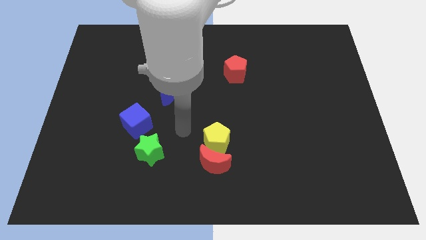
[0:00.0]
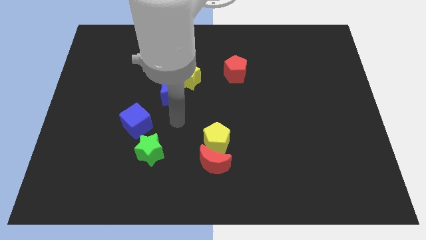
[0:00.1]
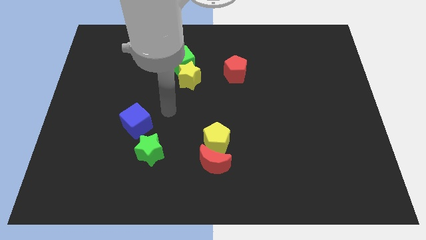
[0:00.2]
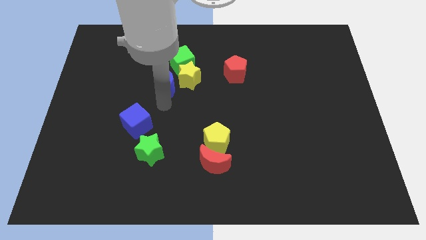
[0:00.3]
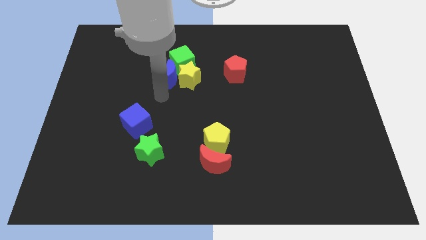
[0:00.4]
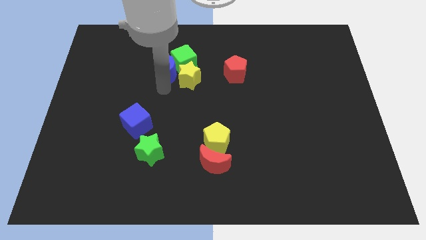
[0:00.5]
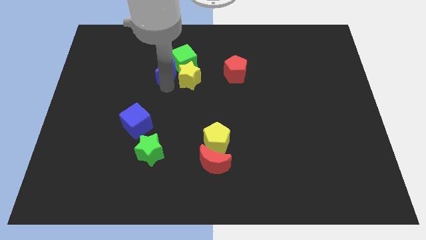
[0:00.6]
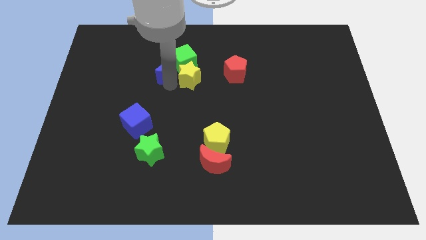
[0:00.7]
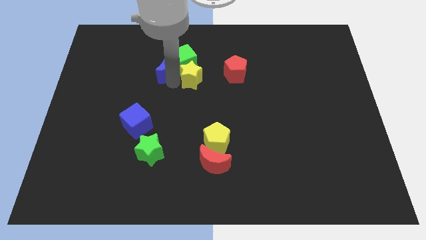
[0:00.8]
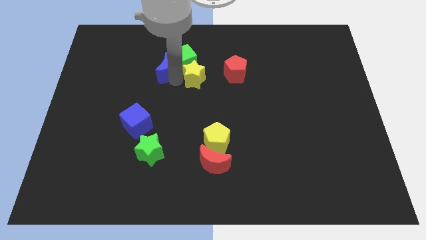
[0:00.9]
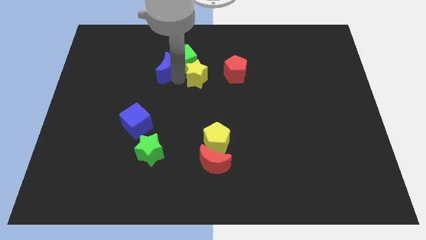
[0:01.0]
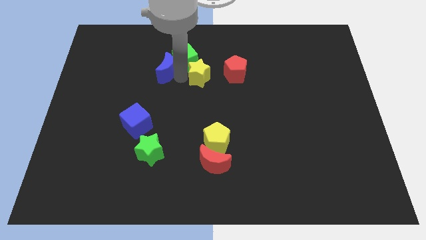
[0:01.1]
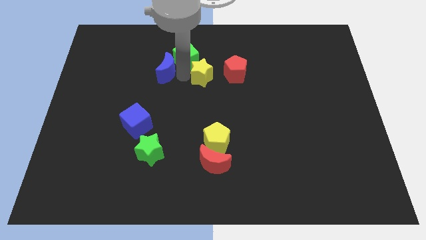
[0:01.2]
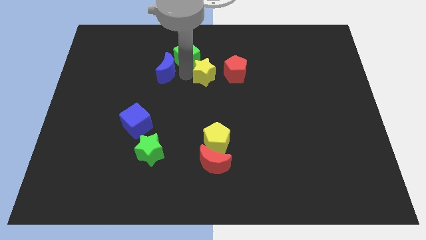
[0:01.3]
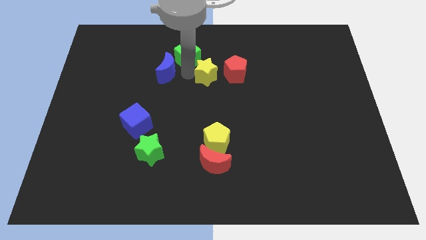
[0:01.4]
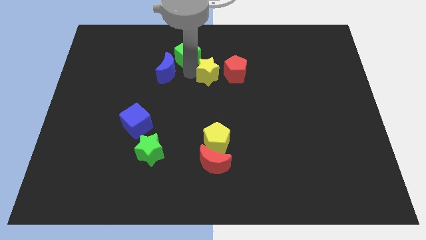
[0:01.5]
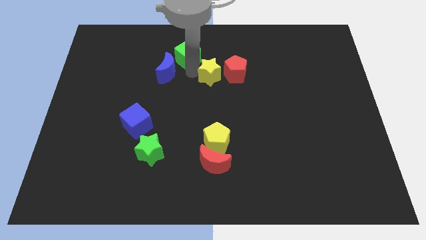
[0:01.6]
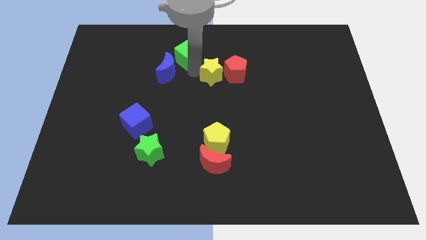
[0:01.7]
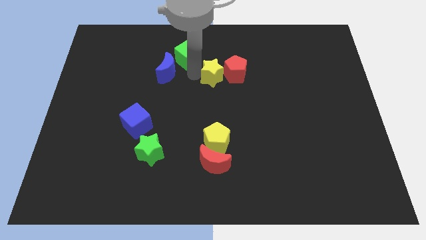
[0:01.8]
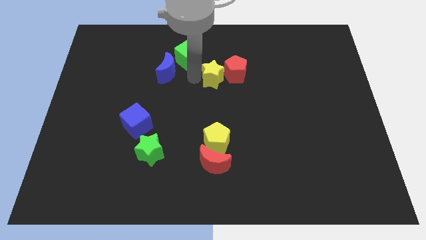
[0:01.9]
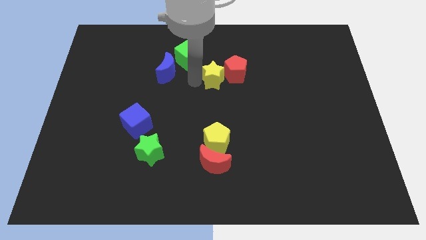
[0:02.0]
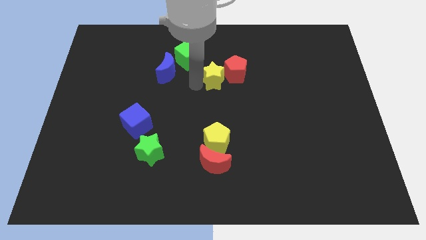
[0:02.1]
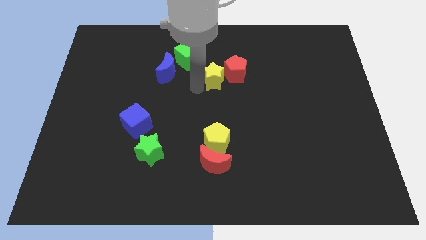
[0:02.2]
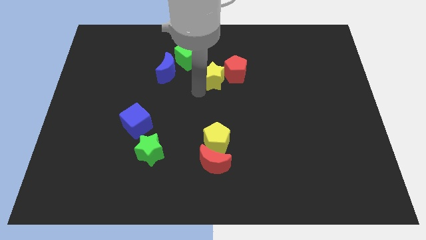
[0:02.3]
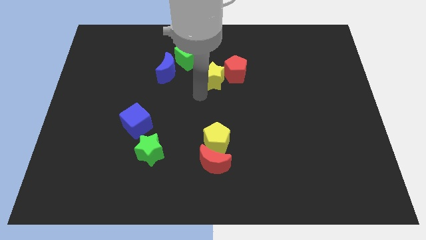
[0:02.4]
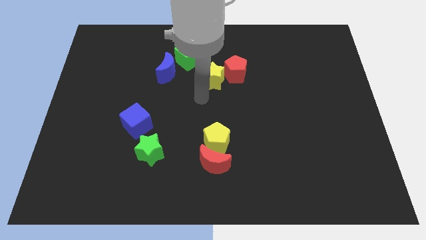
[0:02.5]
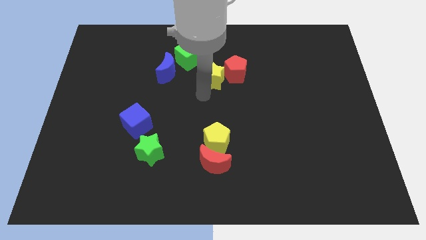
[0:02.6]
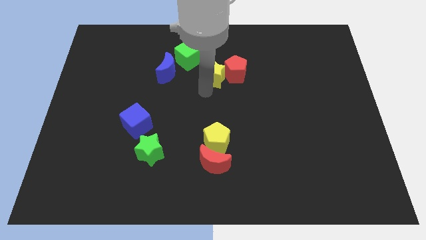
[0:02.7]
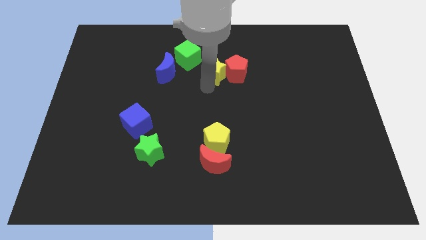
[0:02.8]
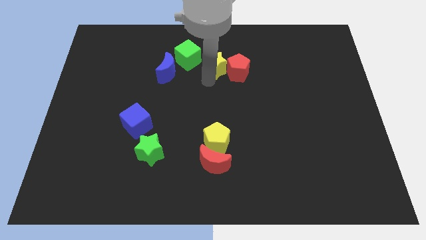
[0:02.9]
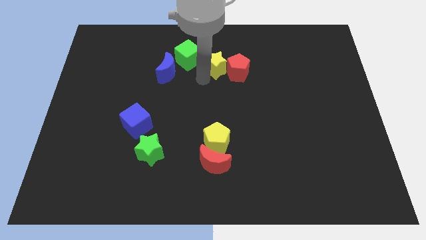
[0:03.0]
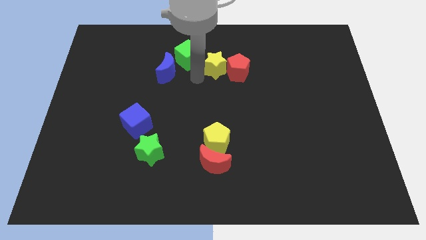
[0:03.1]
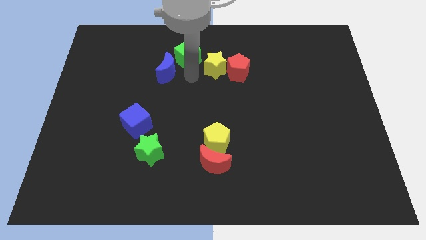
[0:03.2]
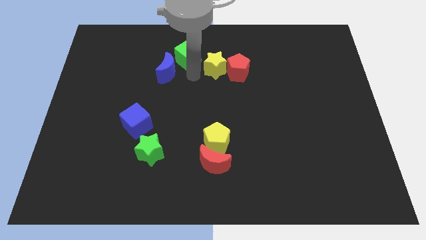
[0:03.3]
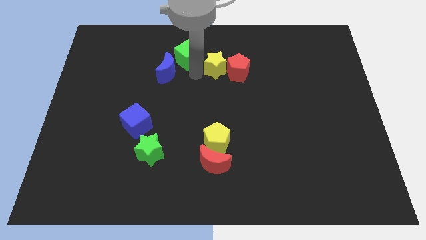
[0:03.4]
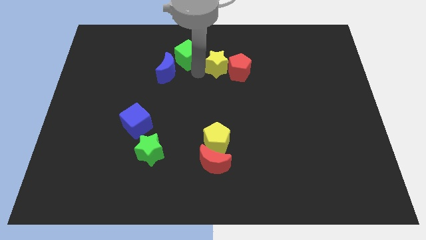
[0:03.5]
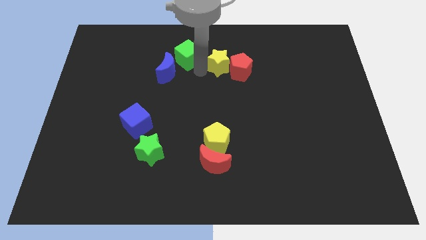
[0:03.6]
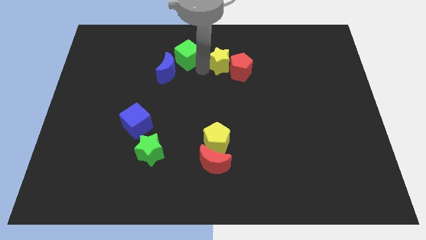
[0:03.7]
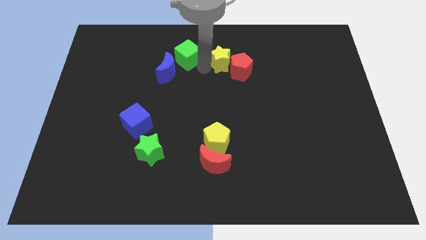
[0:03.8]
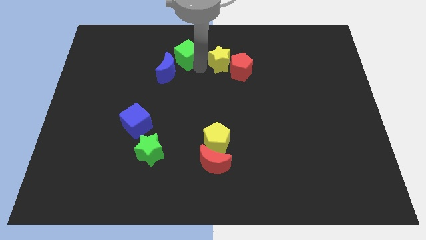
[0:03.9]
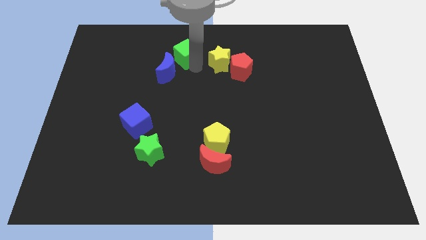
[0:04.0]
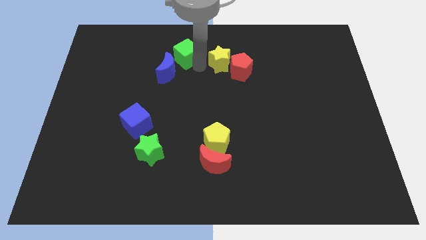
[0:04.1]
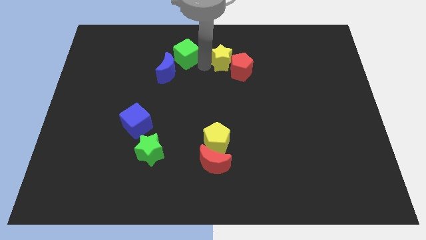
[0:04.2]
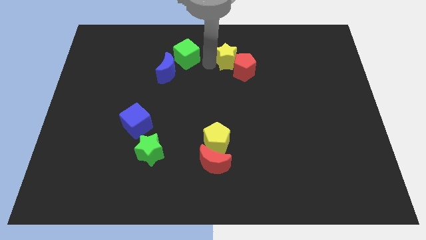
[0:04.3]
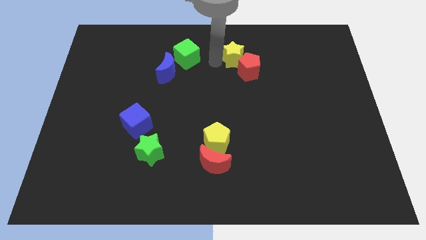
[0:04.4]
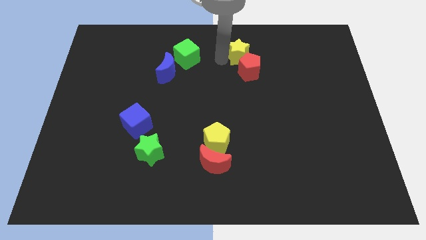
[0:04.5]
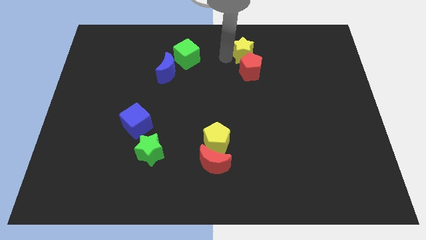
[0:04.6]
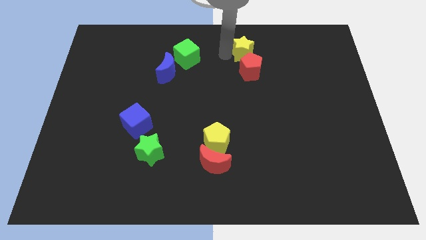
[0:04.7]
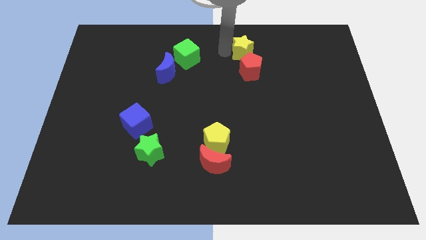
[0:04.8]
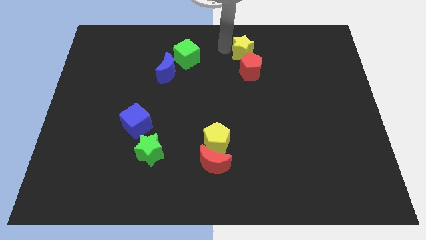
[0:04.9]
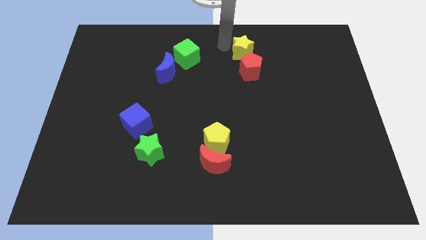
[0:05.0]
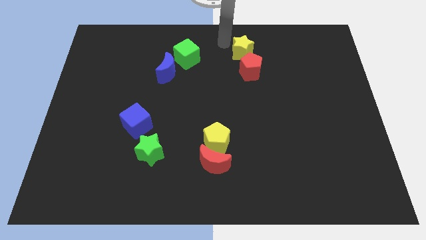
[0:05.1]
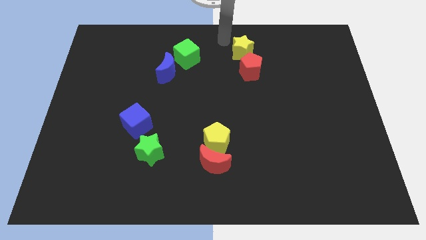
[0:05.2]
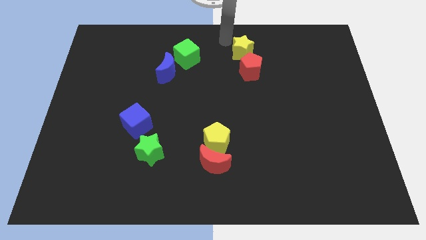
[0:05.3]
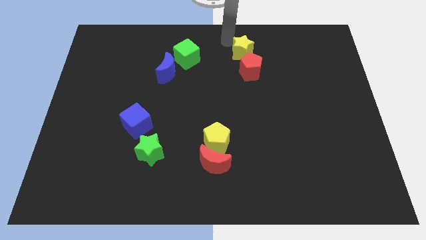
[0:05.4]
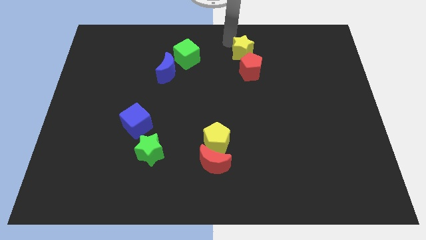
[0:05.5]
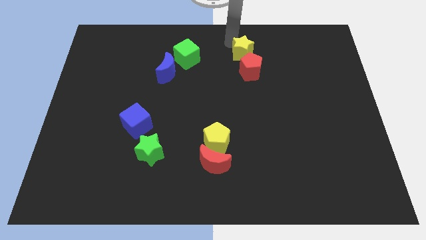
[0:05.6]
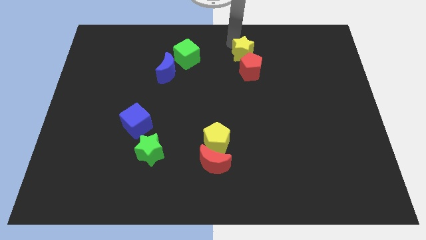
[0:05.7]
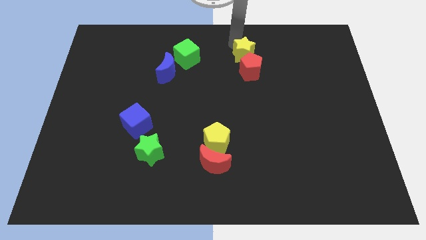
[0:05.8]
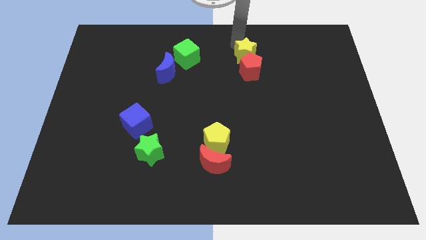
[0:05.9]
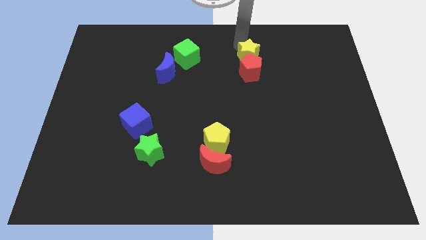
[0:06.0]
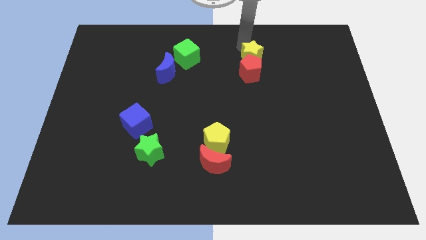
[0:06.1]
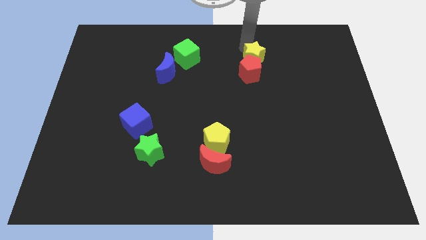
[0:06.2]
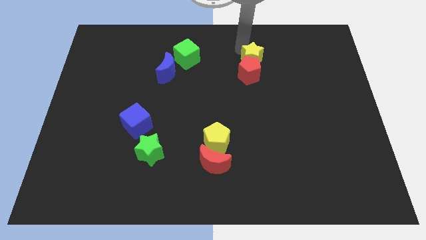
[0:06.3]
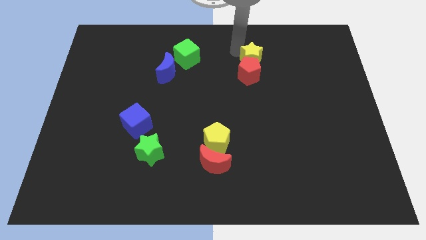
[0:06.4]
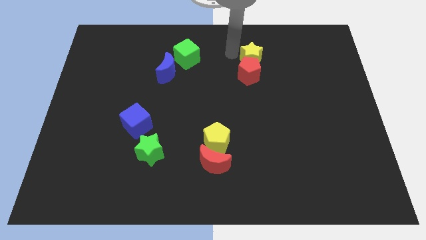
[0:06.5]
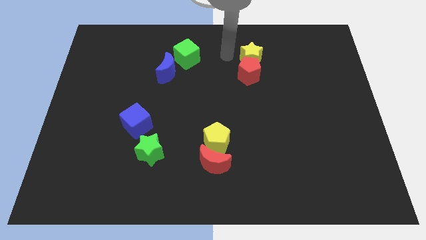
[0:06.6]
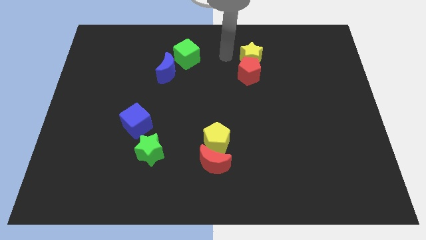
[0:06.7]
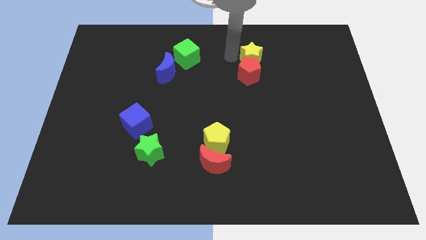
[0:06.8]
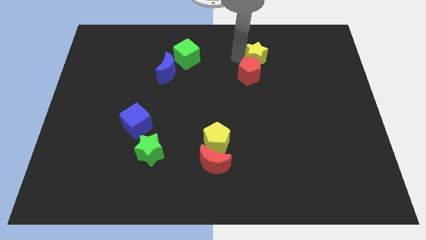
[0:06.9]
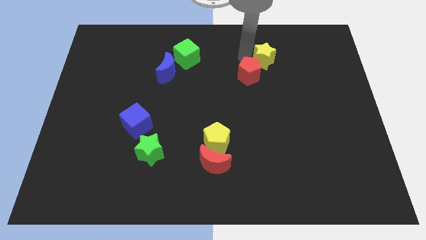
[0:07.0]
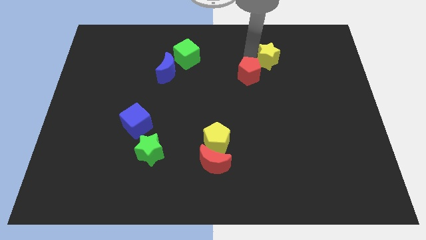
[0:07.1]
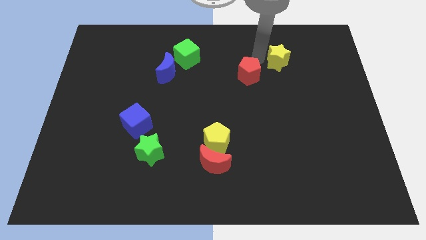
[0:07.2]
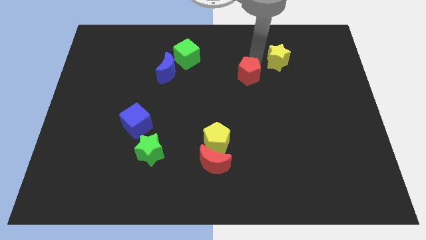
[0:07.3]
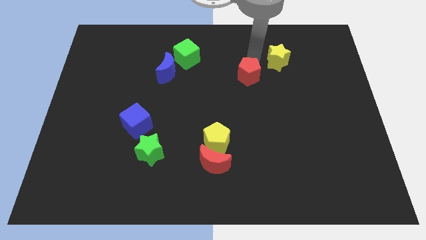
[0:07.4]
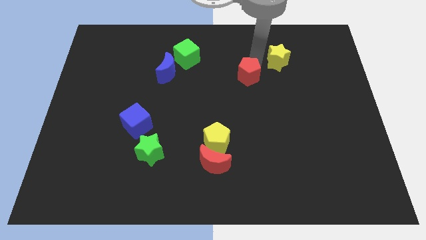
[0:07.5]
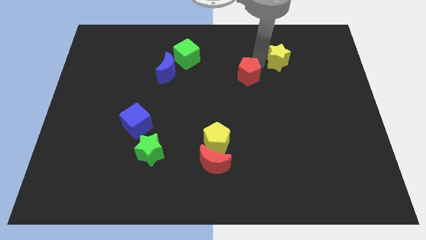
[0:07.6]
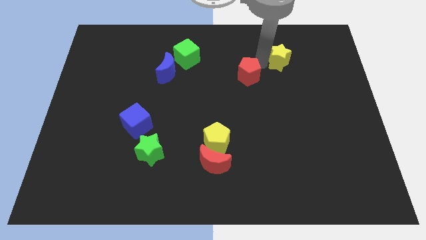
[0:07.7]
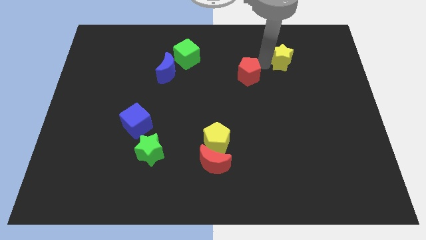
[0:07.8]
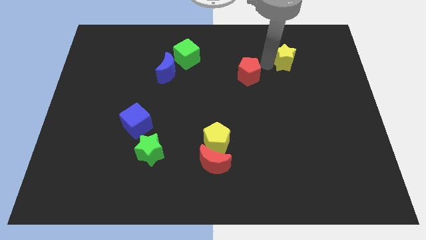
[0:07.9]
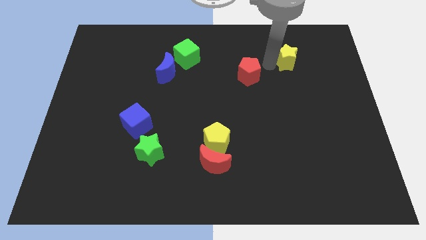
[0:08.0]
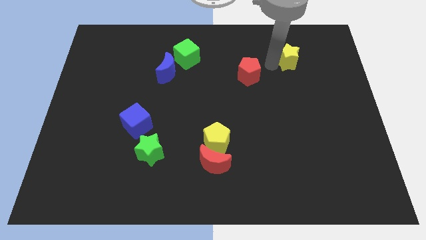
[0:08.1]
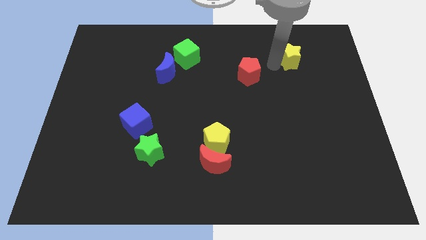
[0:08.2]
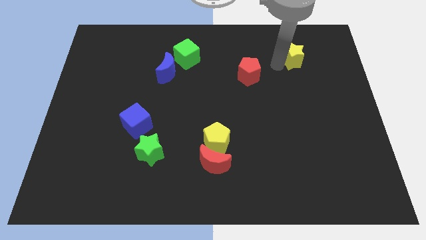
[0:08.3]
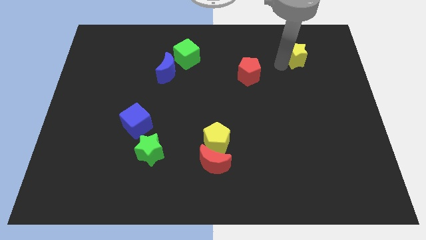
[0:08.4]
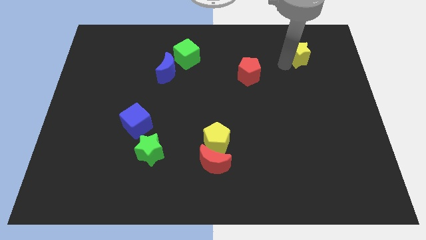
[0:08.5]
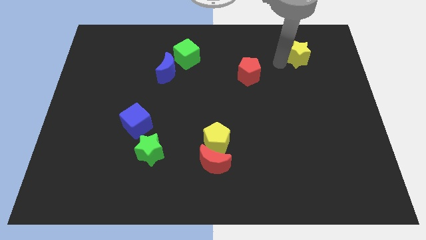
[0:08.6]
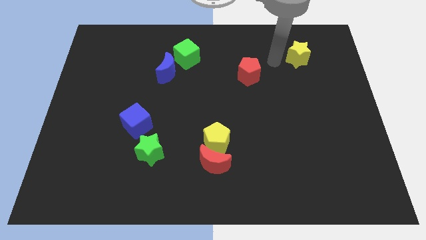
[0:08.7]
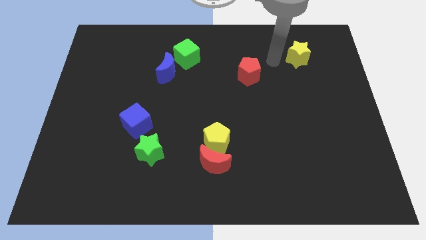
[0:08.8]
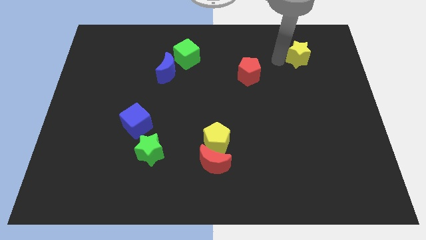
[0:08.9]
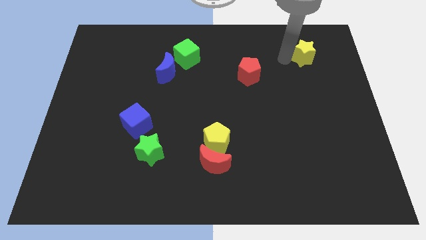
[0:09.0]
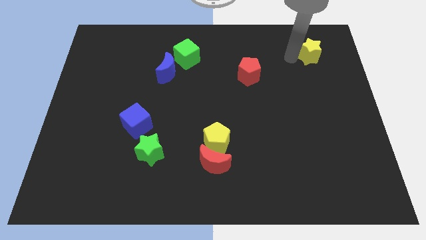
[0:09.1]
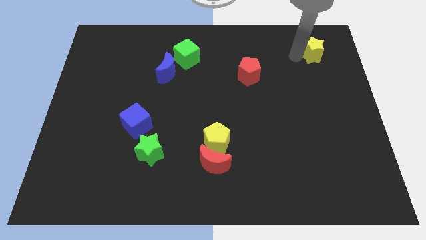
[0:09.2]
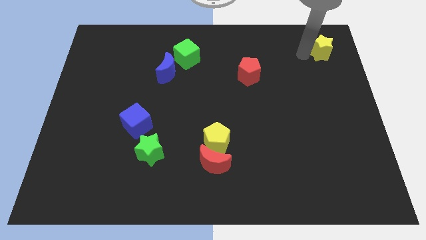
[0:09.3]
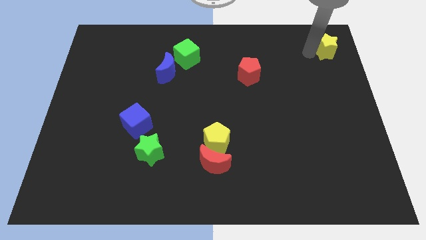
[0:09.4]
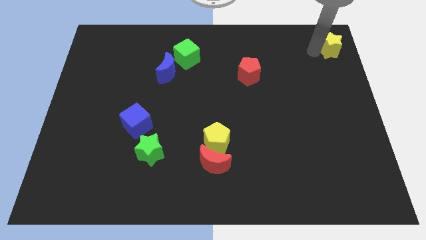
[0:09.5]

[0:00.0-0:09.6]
move the yellow star to the top right corner
